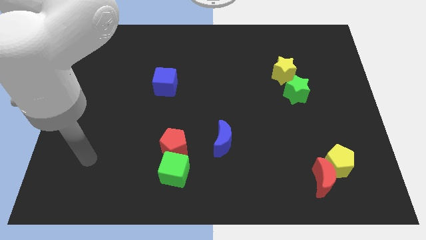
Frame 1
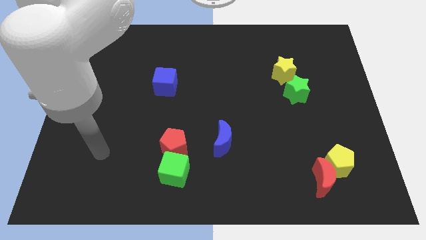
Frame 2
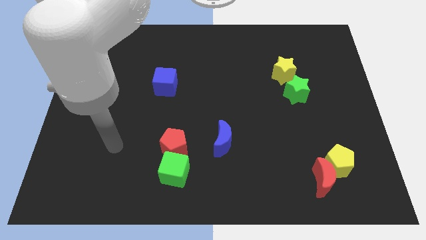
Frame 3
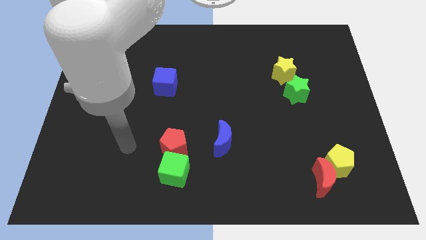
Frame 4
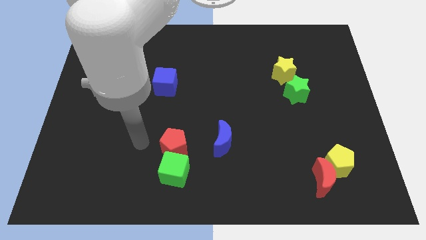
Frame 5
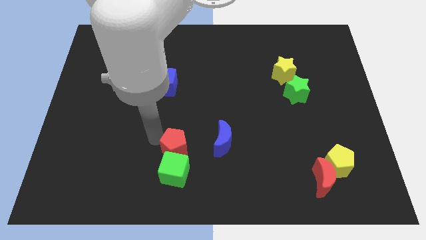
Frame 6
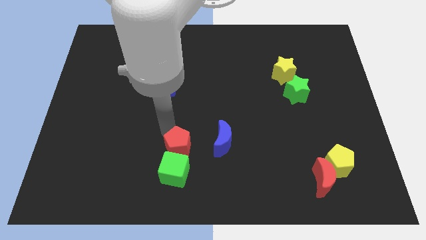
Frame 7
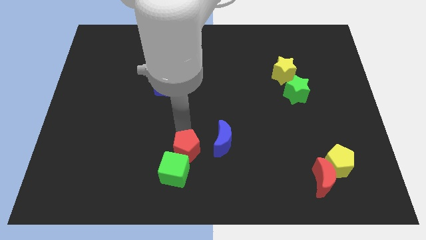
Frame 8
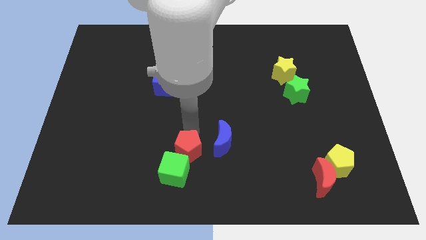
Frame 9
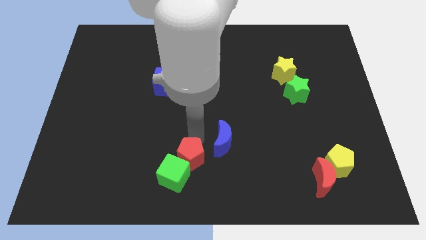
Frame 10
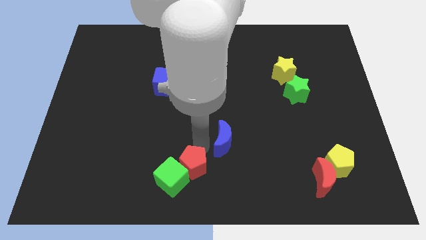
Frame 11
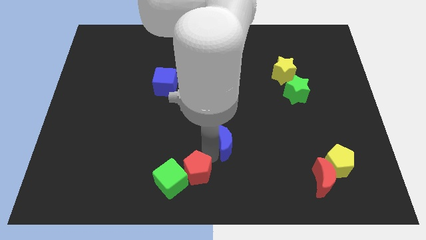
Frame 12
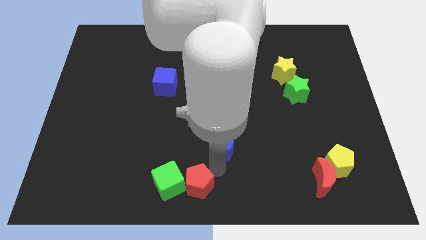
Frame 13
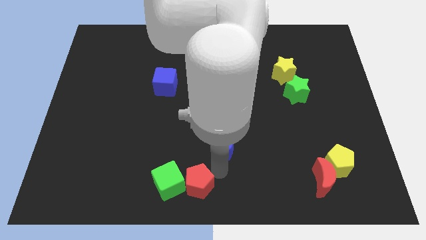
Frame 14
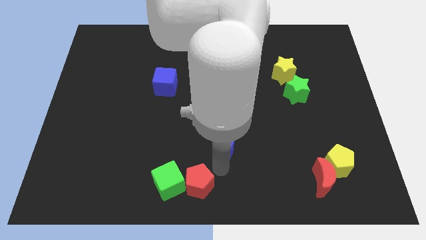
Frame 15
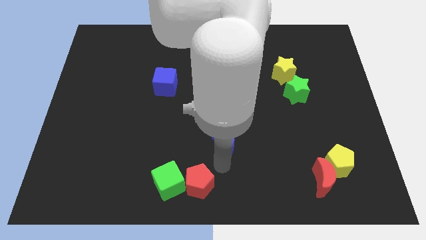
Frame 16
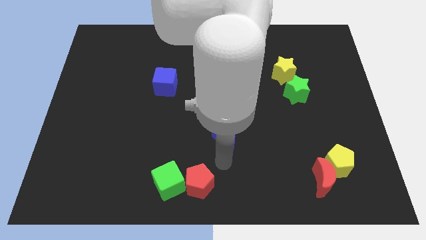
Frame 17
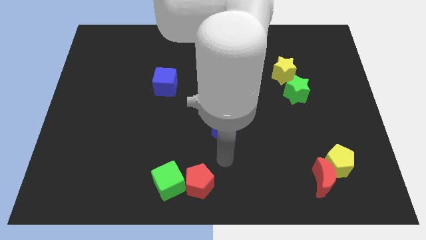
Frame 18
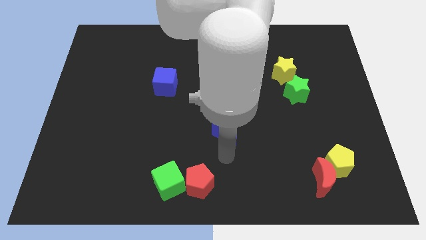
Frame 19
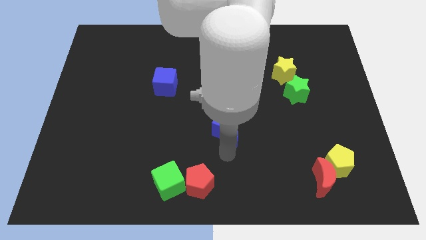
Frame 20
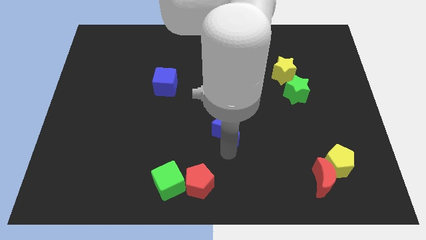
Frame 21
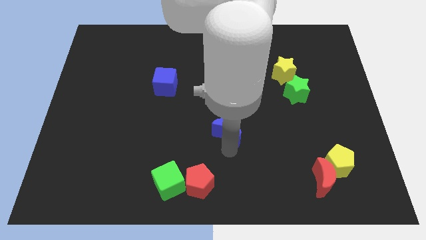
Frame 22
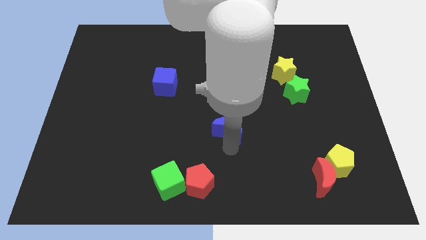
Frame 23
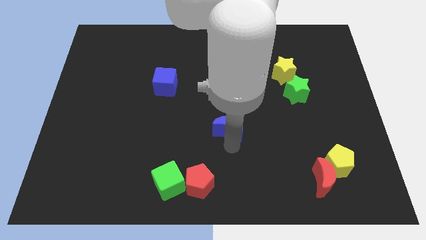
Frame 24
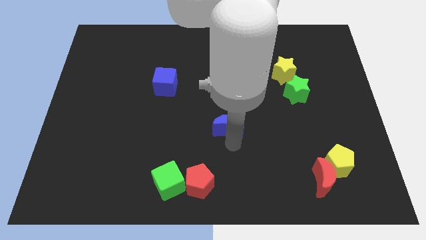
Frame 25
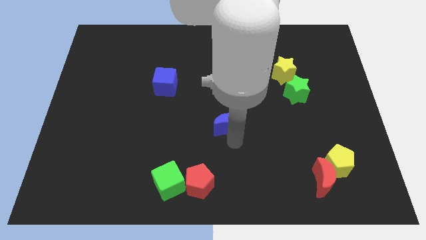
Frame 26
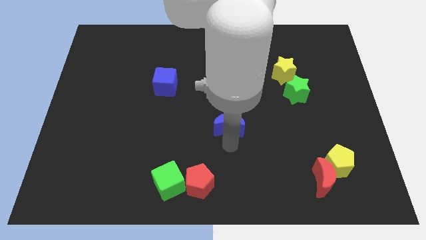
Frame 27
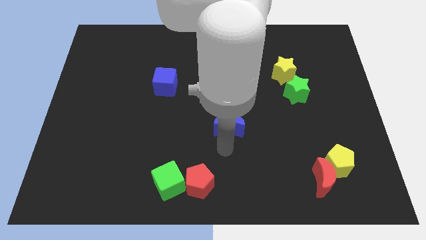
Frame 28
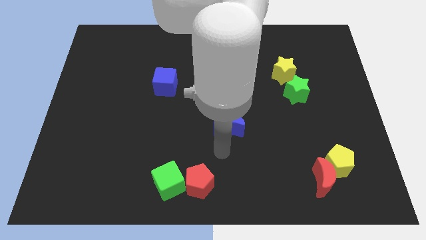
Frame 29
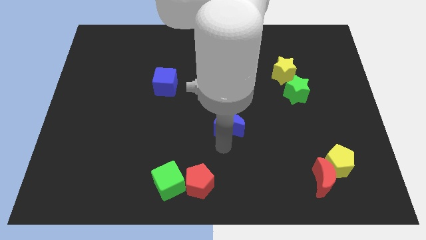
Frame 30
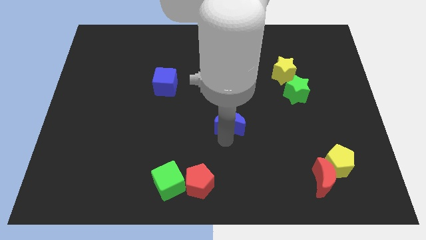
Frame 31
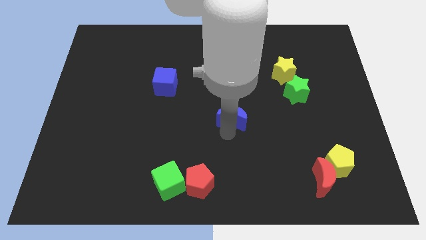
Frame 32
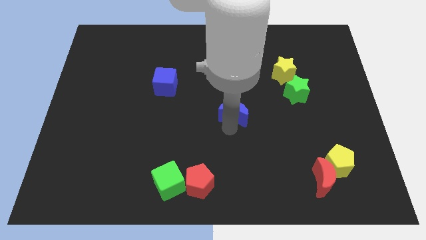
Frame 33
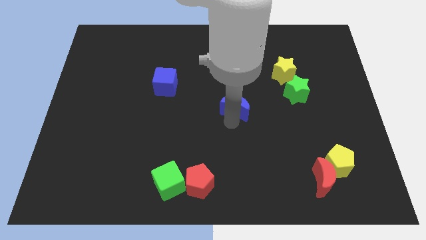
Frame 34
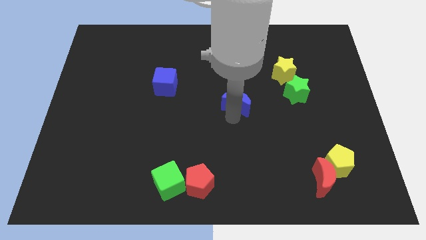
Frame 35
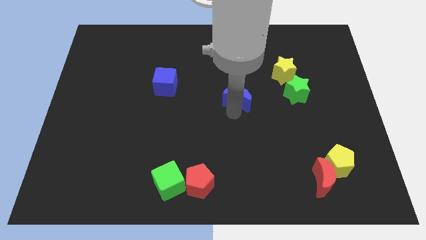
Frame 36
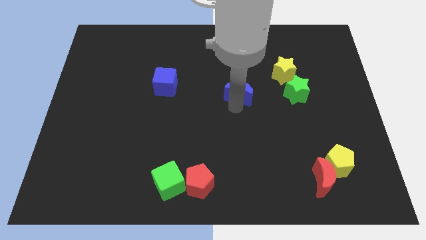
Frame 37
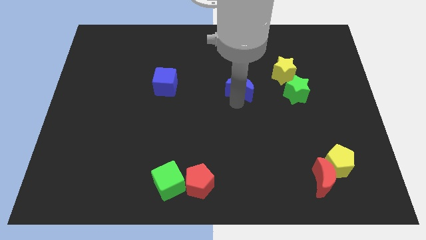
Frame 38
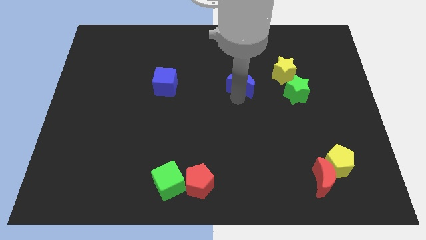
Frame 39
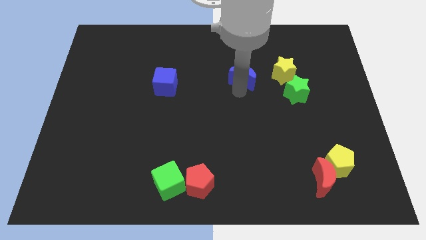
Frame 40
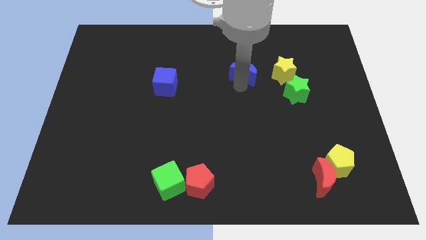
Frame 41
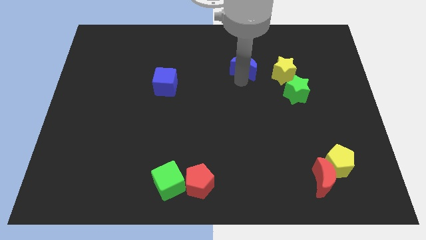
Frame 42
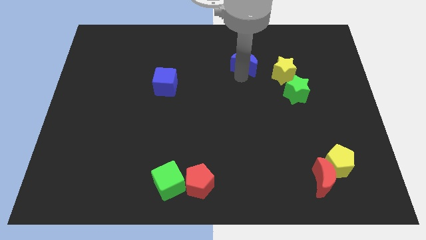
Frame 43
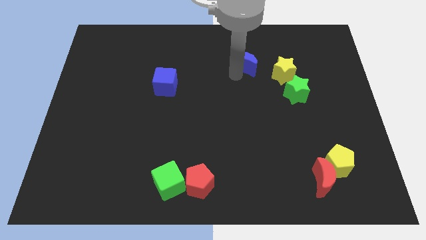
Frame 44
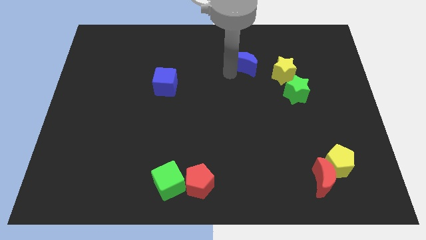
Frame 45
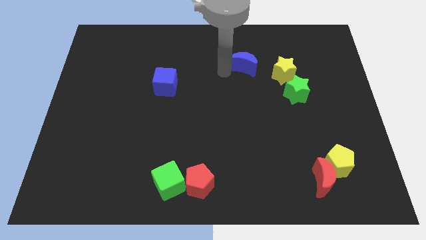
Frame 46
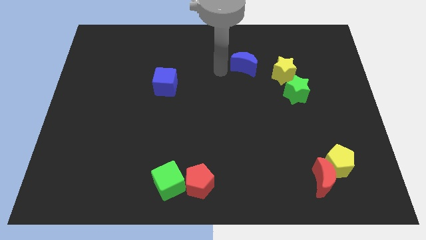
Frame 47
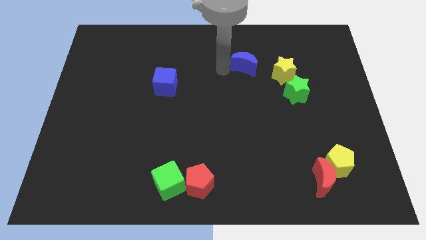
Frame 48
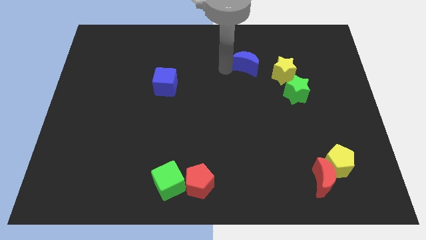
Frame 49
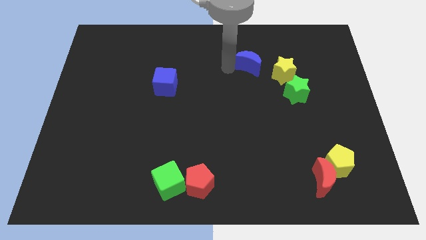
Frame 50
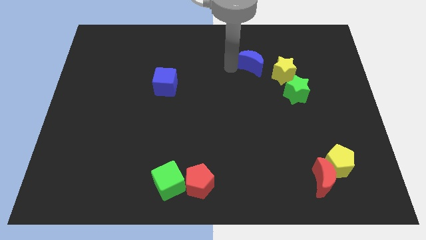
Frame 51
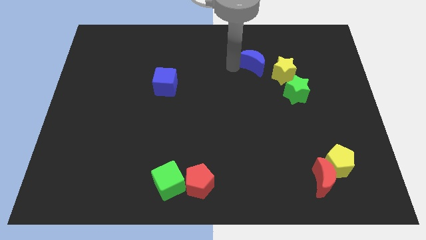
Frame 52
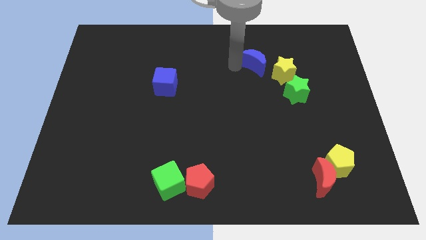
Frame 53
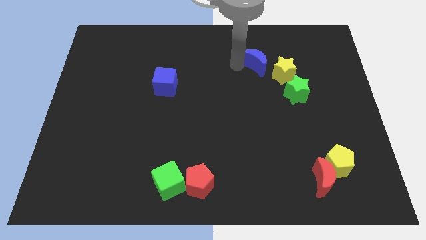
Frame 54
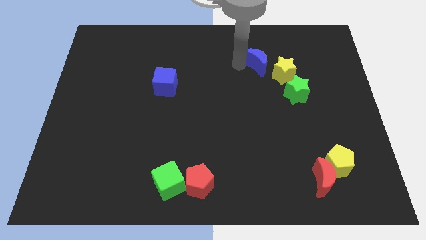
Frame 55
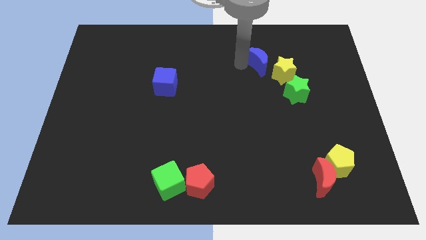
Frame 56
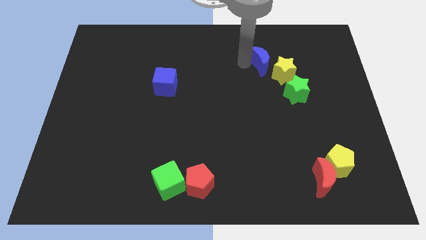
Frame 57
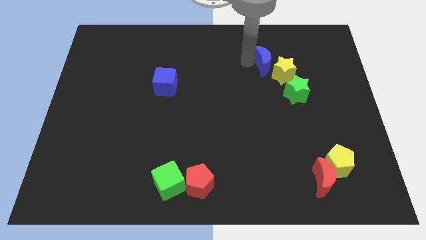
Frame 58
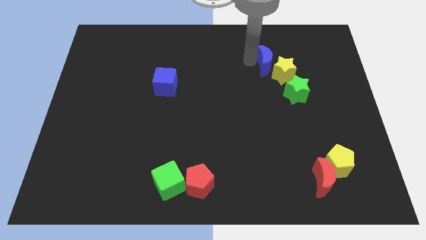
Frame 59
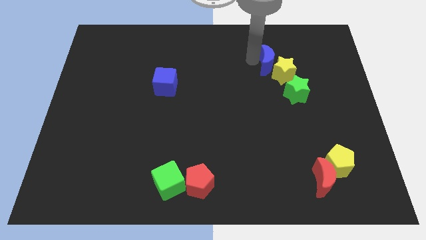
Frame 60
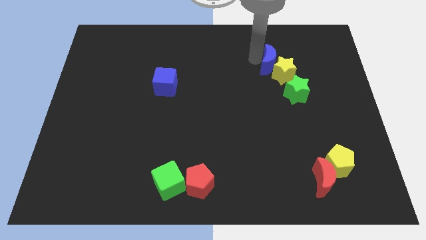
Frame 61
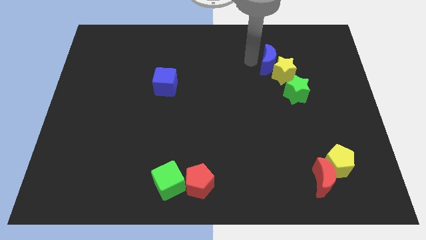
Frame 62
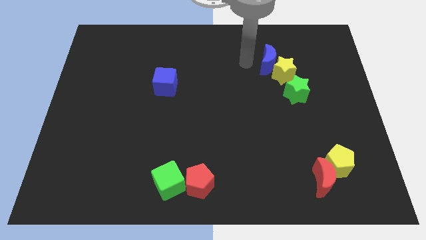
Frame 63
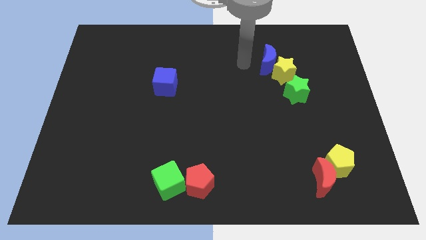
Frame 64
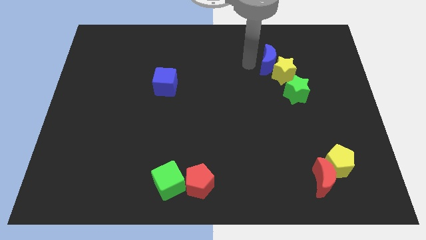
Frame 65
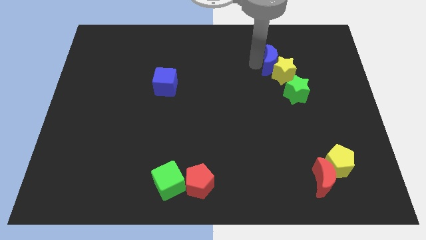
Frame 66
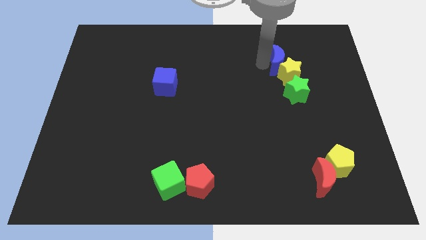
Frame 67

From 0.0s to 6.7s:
slide the blue moon to the top side of the green star

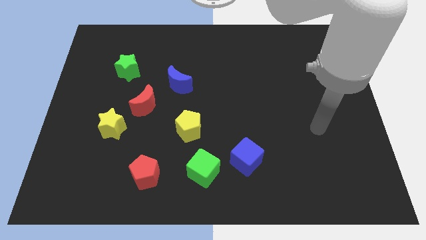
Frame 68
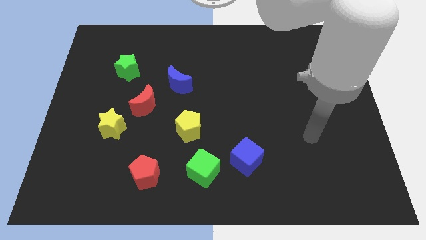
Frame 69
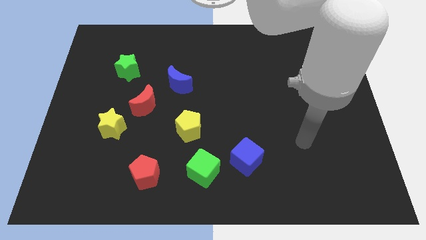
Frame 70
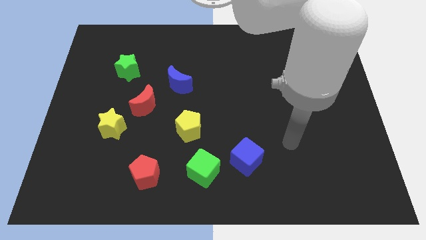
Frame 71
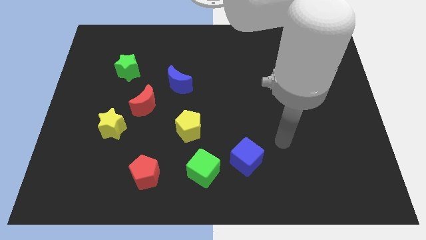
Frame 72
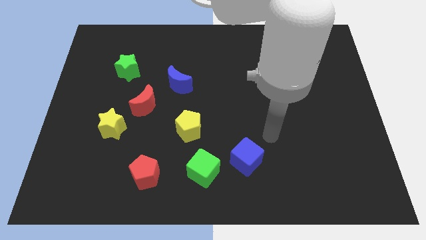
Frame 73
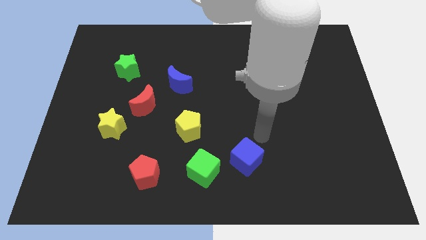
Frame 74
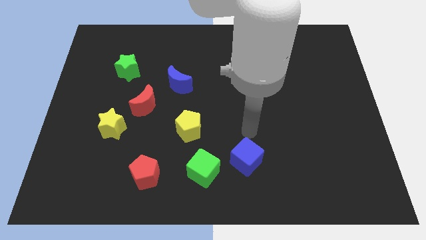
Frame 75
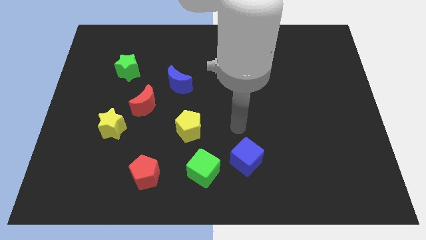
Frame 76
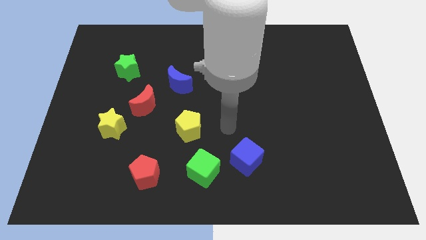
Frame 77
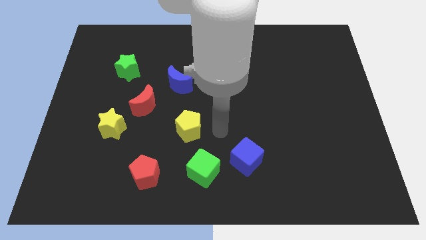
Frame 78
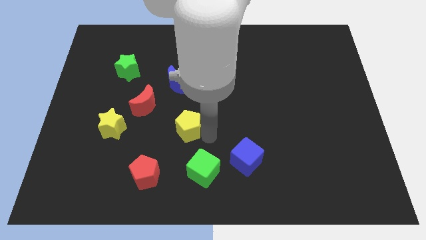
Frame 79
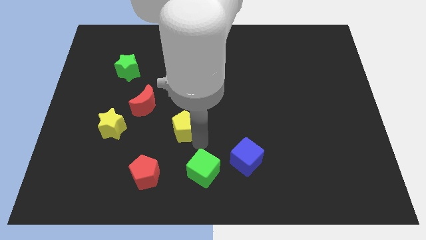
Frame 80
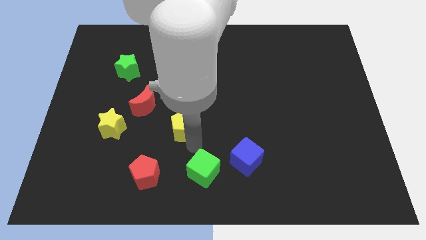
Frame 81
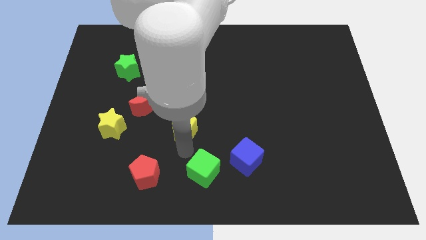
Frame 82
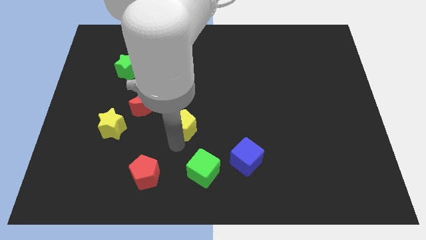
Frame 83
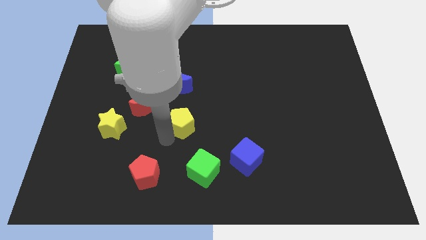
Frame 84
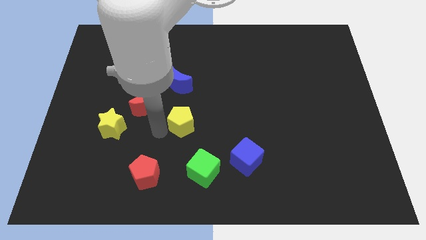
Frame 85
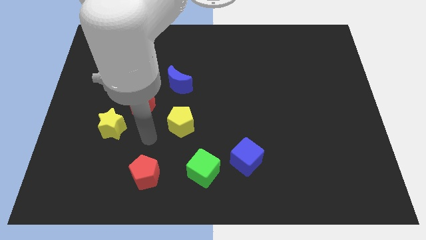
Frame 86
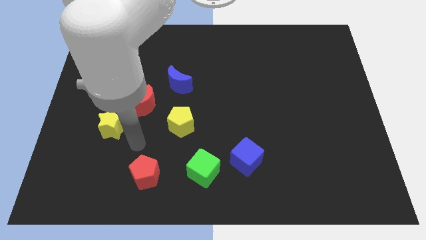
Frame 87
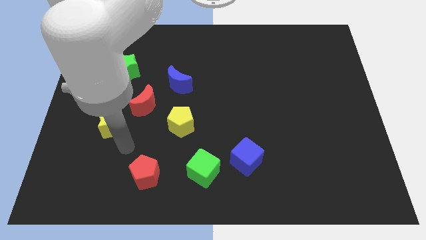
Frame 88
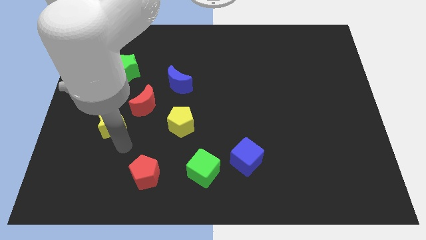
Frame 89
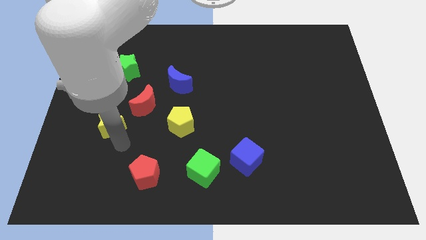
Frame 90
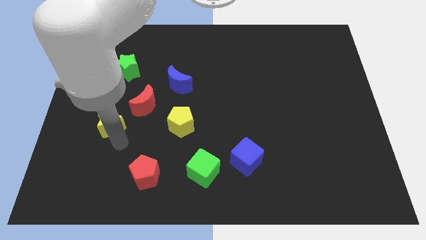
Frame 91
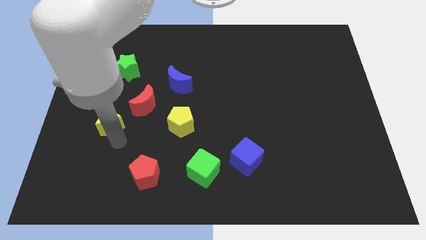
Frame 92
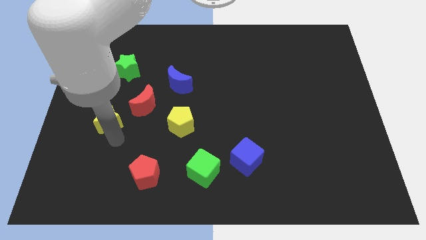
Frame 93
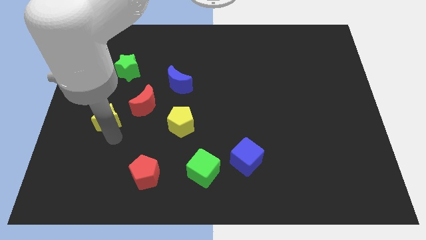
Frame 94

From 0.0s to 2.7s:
slide the yellow star to the left side of the red moon
